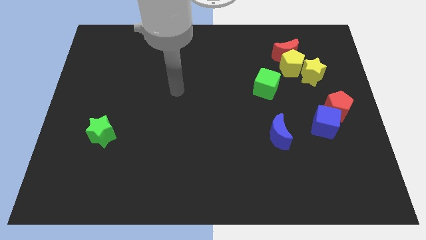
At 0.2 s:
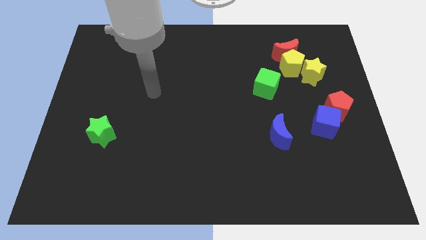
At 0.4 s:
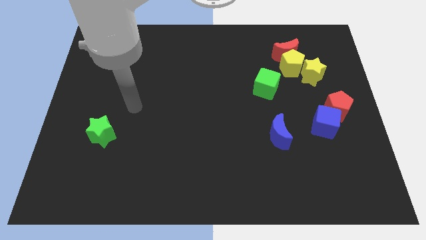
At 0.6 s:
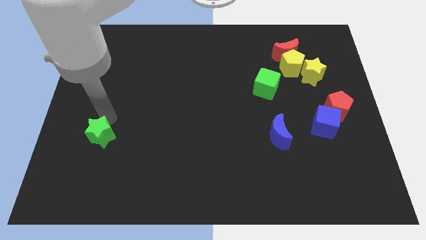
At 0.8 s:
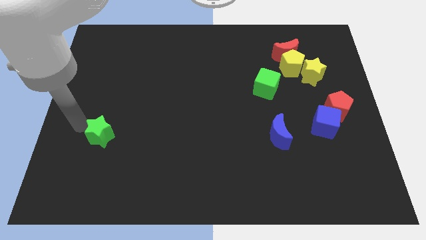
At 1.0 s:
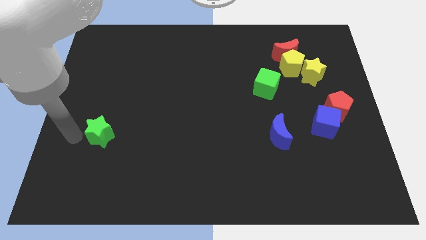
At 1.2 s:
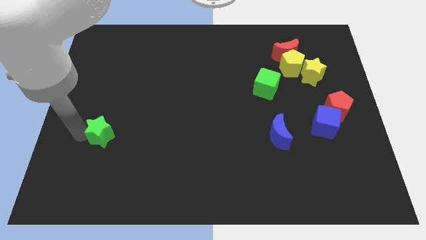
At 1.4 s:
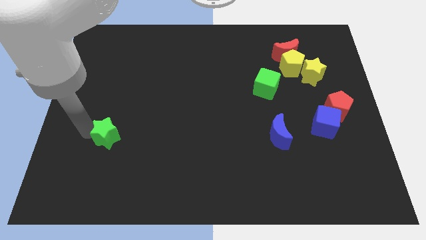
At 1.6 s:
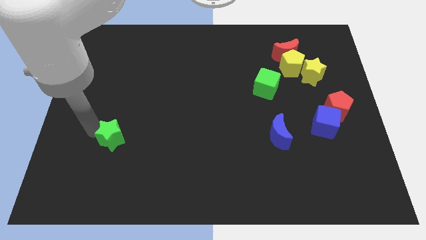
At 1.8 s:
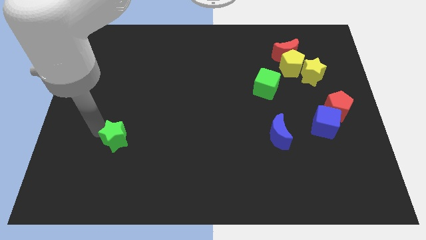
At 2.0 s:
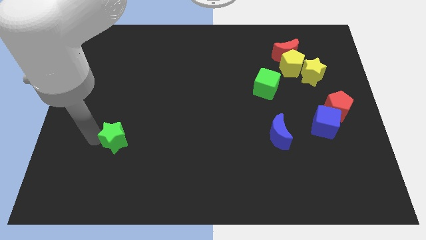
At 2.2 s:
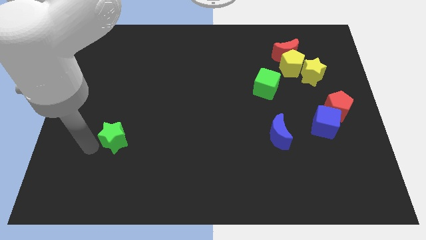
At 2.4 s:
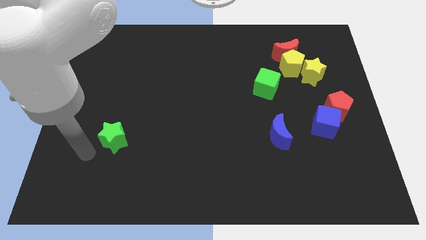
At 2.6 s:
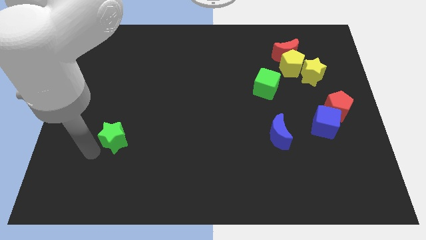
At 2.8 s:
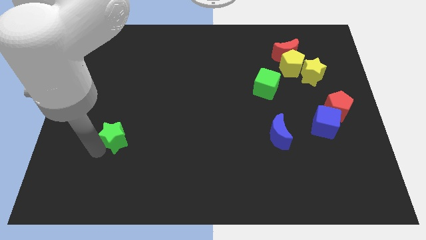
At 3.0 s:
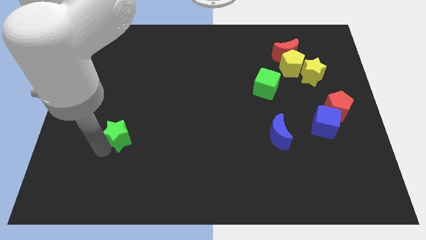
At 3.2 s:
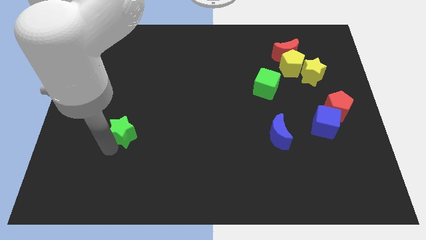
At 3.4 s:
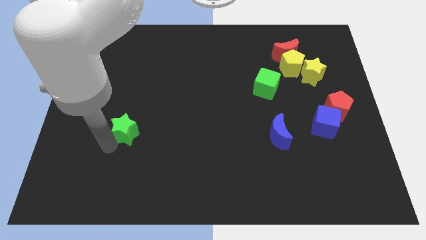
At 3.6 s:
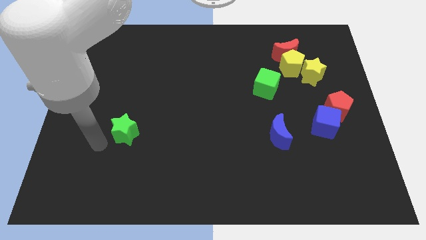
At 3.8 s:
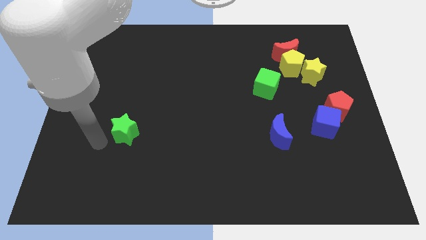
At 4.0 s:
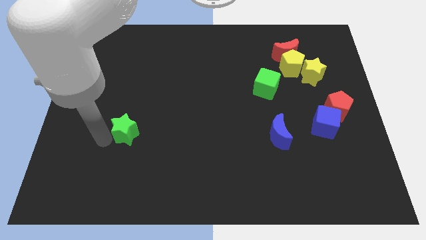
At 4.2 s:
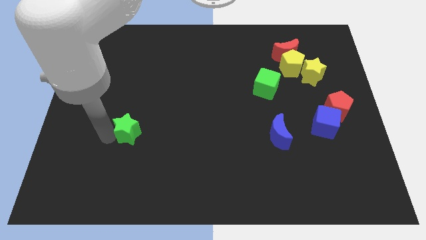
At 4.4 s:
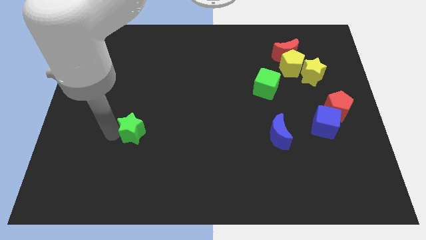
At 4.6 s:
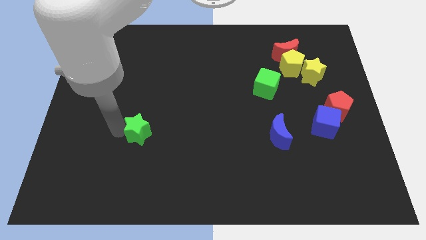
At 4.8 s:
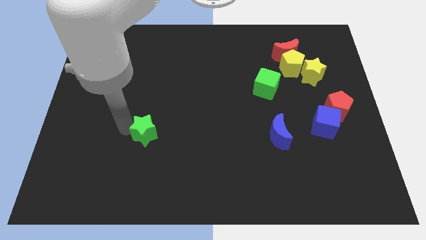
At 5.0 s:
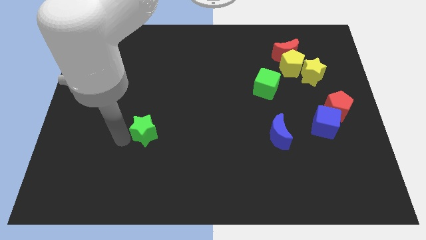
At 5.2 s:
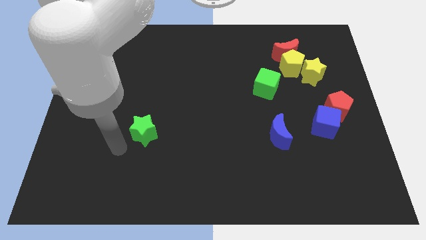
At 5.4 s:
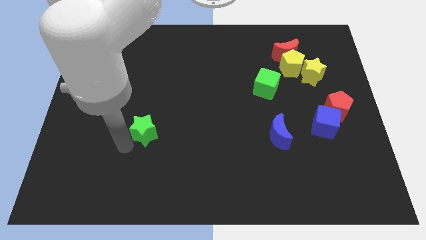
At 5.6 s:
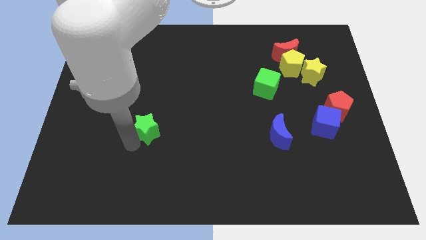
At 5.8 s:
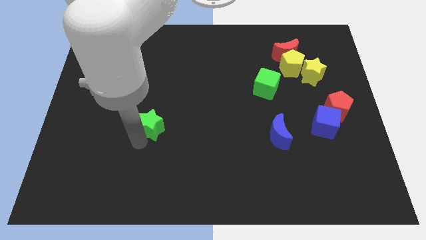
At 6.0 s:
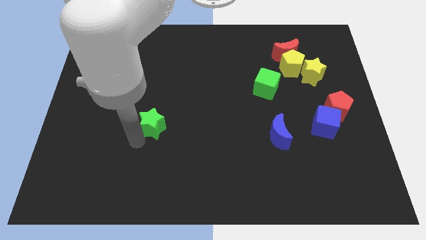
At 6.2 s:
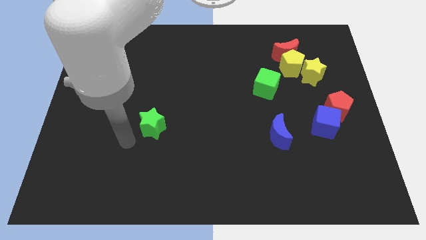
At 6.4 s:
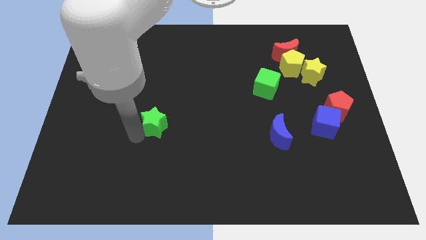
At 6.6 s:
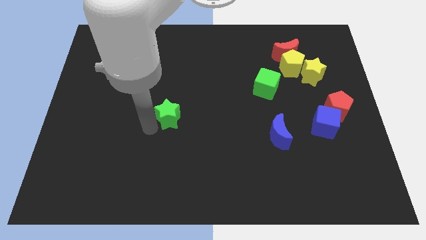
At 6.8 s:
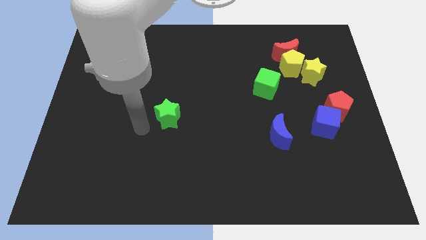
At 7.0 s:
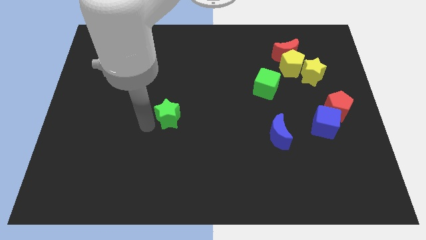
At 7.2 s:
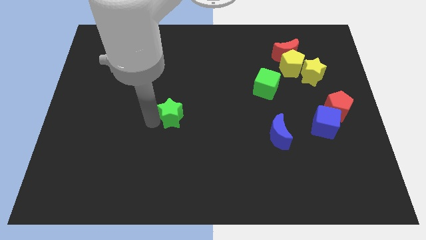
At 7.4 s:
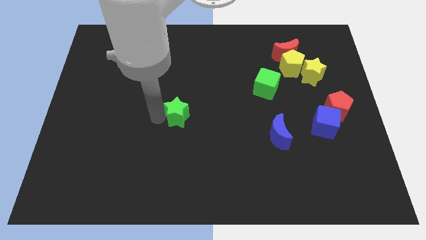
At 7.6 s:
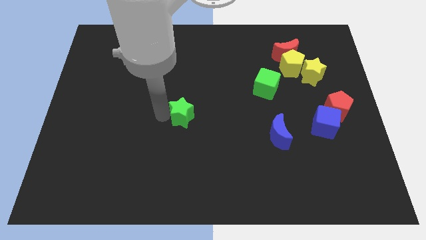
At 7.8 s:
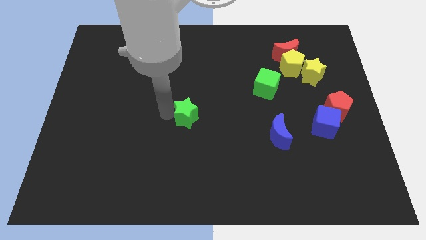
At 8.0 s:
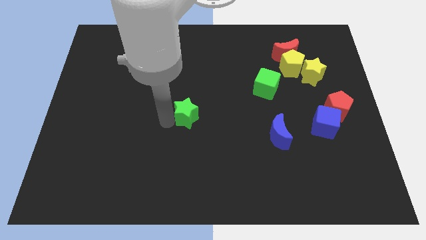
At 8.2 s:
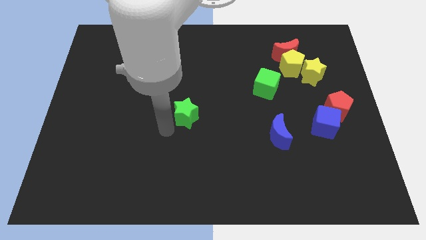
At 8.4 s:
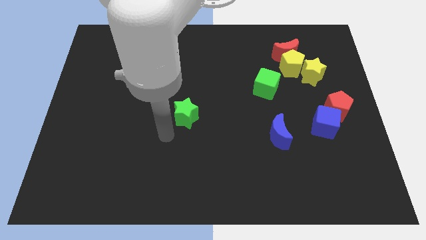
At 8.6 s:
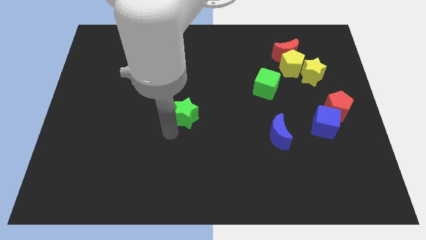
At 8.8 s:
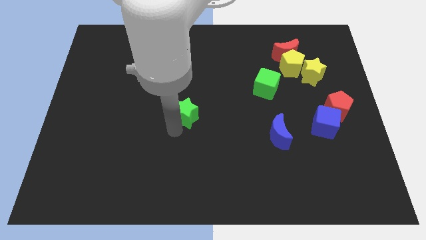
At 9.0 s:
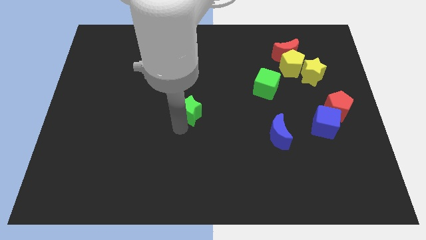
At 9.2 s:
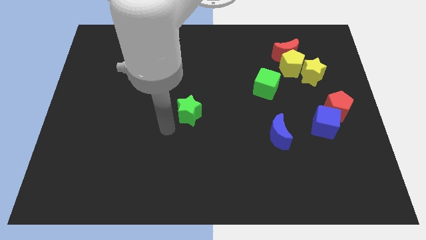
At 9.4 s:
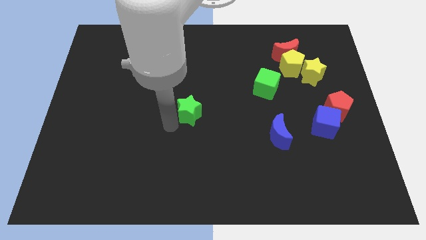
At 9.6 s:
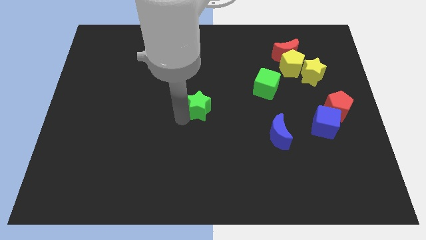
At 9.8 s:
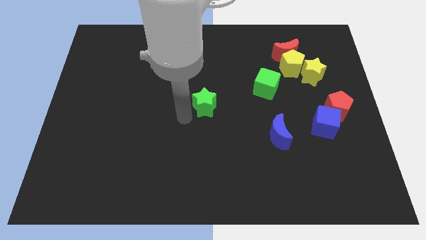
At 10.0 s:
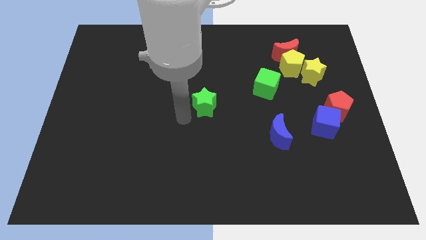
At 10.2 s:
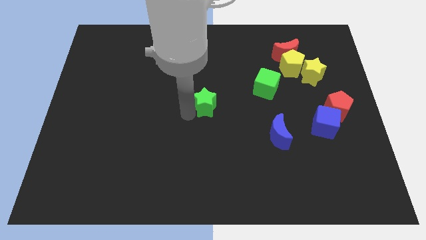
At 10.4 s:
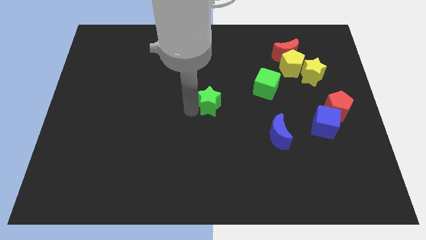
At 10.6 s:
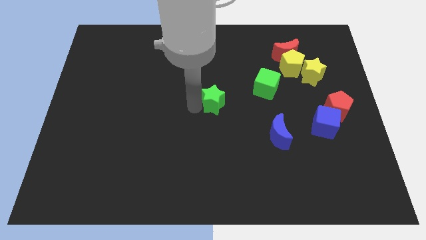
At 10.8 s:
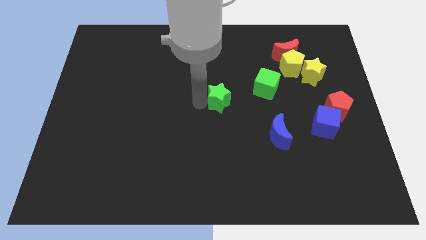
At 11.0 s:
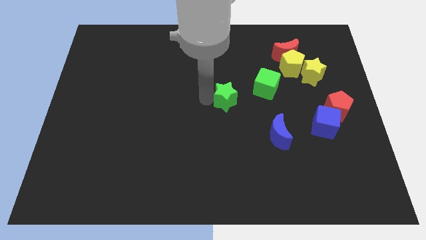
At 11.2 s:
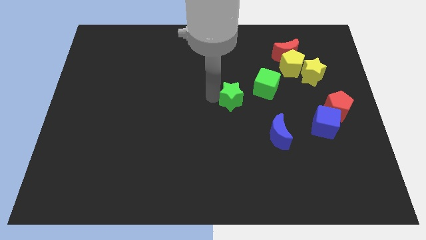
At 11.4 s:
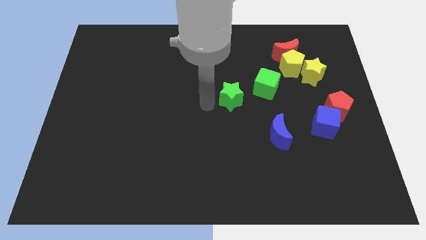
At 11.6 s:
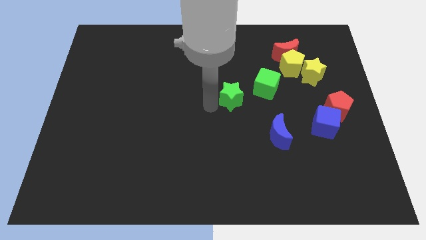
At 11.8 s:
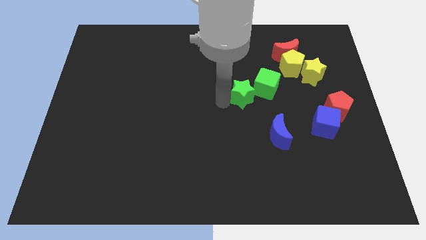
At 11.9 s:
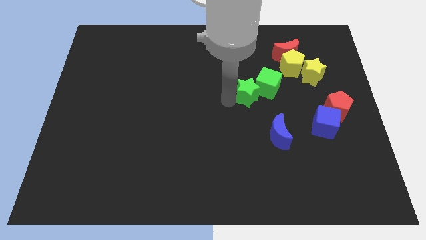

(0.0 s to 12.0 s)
slide the green star next to the green cube

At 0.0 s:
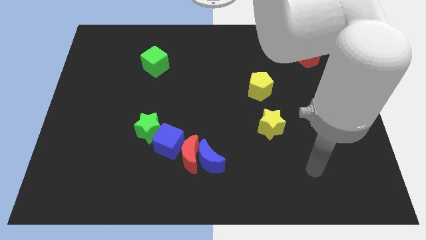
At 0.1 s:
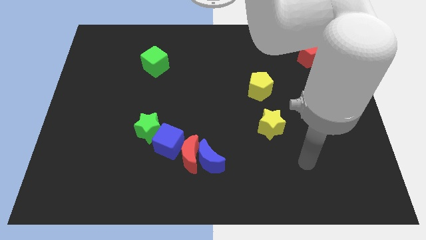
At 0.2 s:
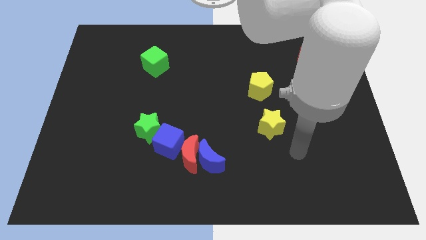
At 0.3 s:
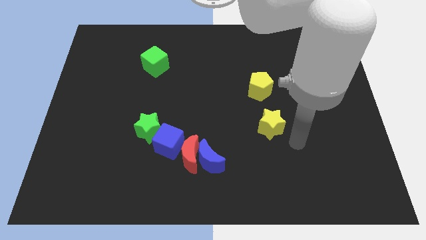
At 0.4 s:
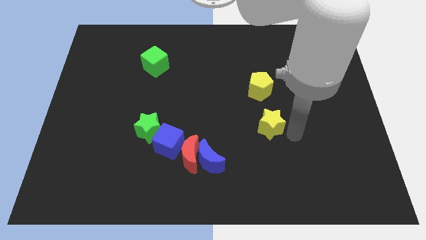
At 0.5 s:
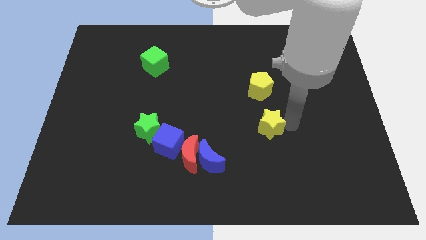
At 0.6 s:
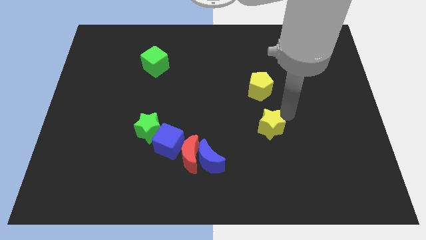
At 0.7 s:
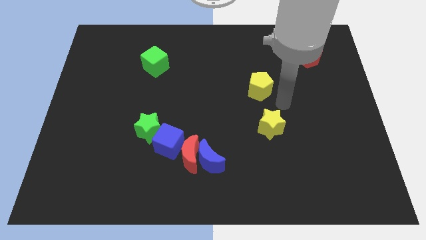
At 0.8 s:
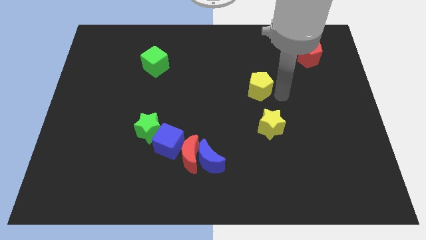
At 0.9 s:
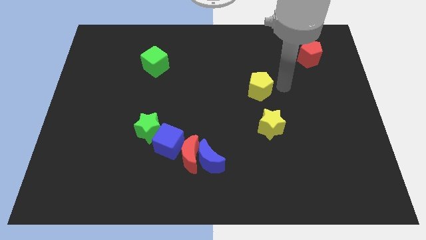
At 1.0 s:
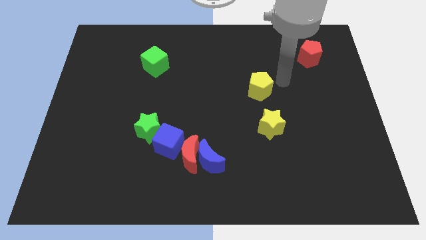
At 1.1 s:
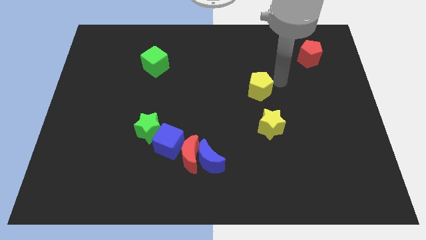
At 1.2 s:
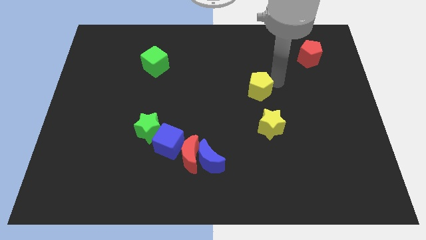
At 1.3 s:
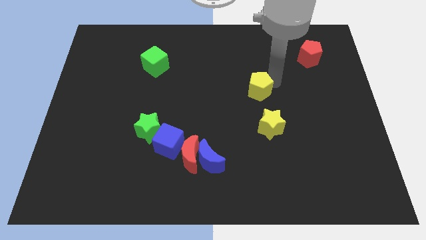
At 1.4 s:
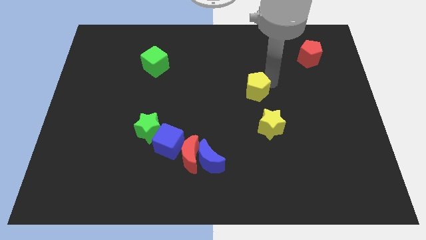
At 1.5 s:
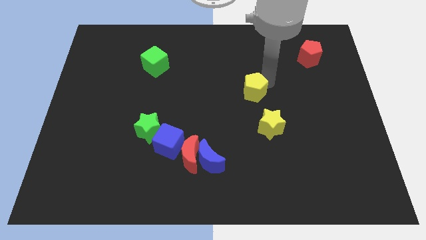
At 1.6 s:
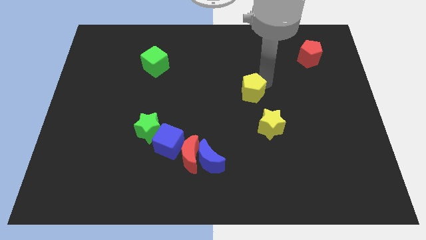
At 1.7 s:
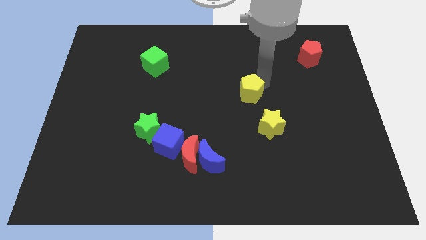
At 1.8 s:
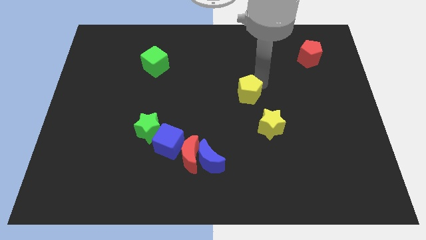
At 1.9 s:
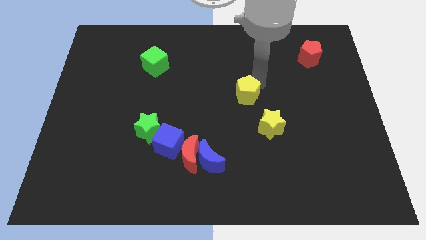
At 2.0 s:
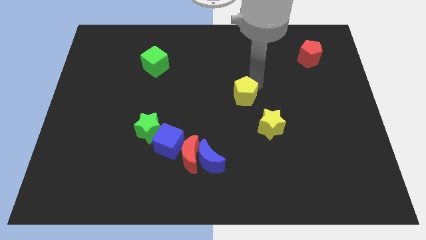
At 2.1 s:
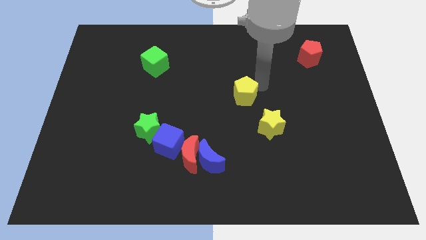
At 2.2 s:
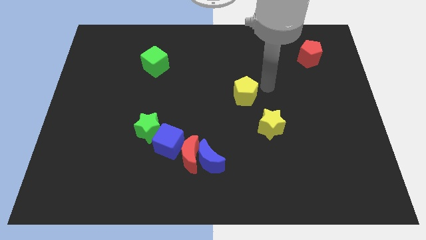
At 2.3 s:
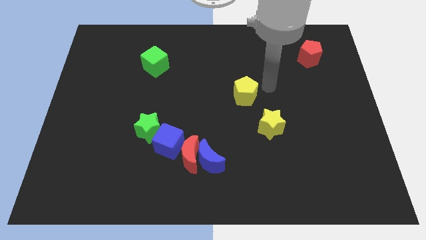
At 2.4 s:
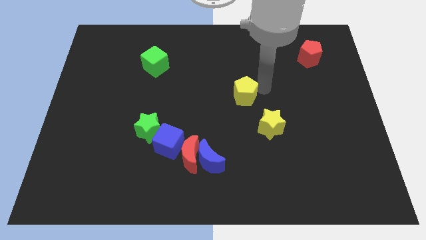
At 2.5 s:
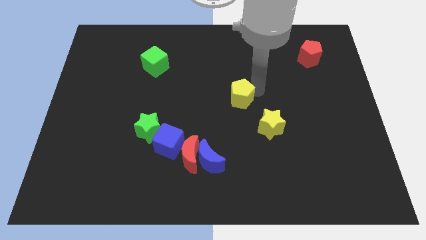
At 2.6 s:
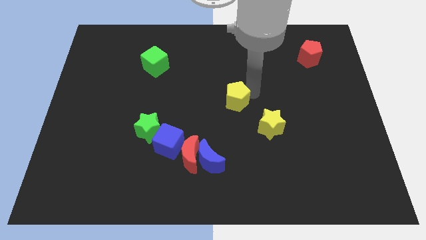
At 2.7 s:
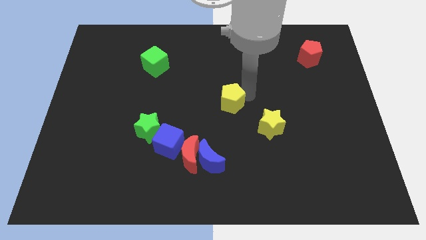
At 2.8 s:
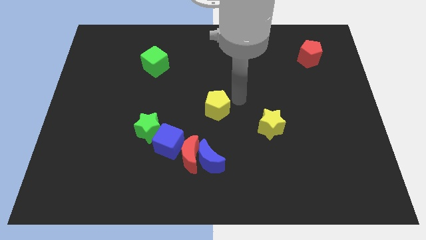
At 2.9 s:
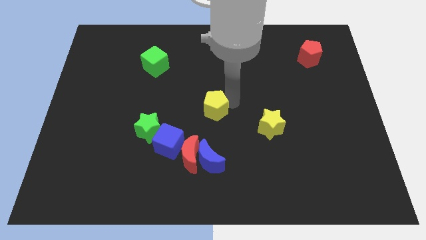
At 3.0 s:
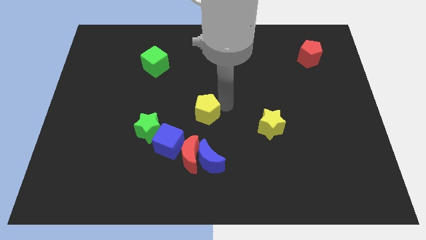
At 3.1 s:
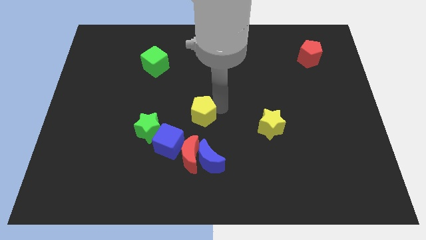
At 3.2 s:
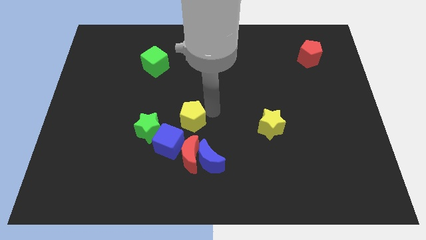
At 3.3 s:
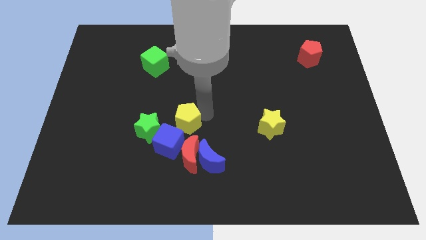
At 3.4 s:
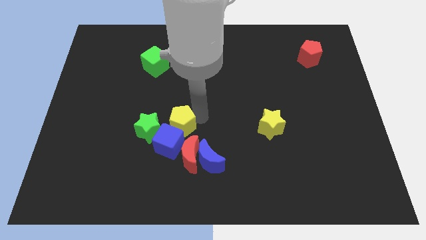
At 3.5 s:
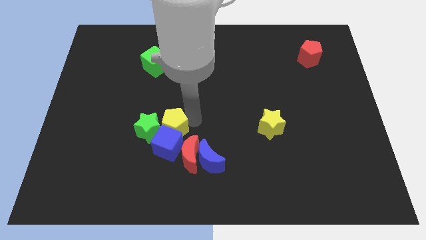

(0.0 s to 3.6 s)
put the yellow pentagon to the green star
